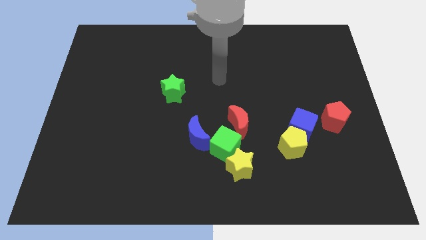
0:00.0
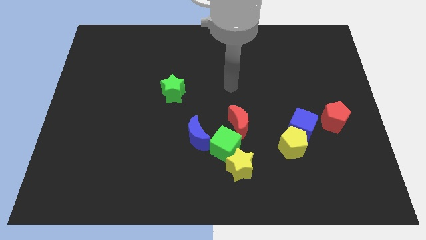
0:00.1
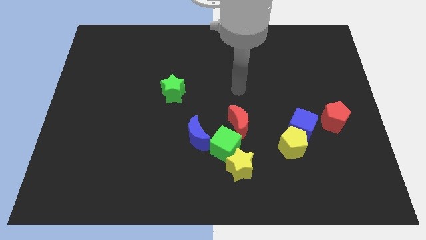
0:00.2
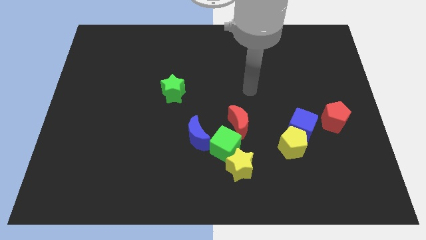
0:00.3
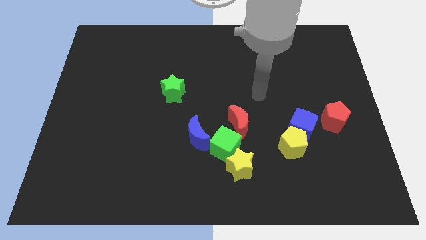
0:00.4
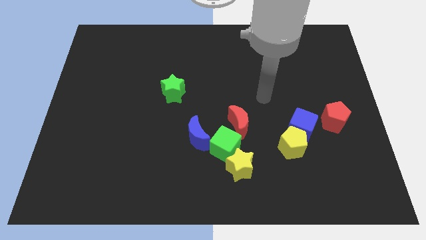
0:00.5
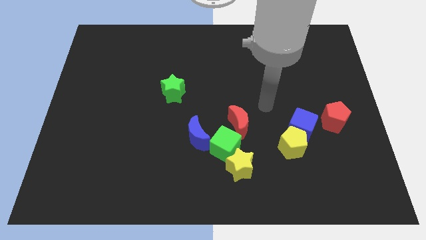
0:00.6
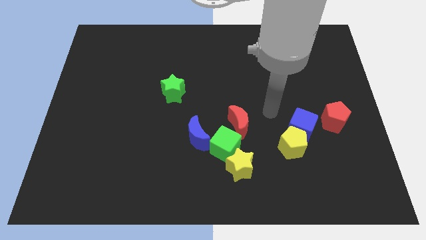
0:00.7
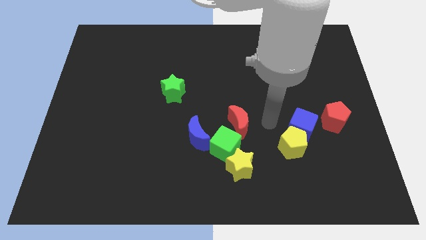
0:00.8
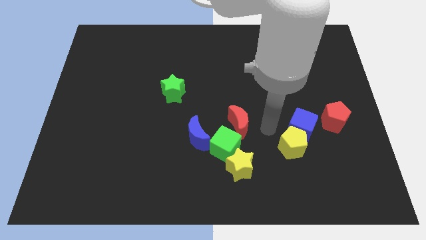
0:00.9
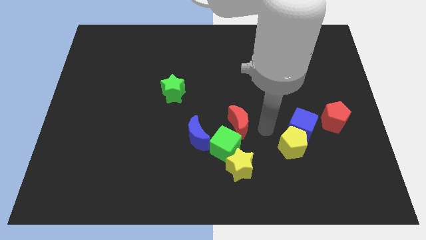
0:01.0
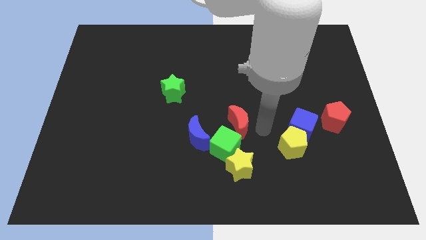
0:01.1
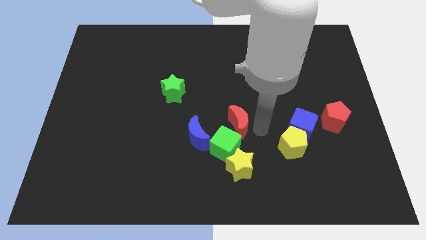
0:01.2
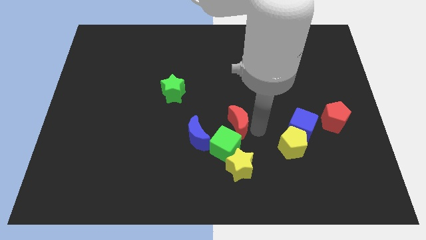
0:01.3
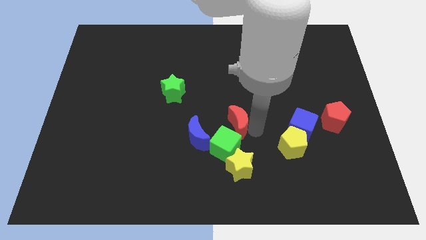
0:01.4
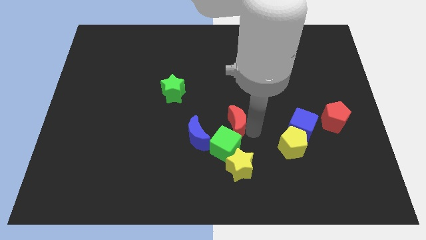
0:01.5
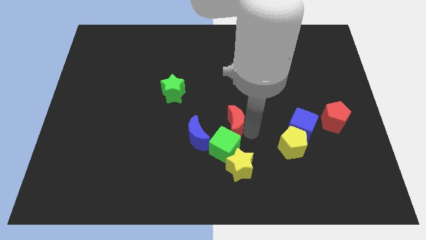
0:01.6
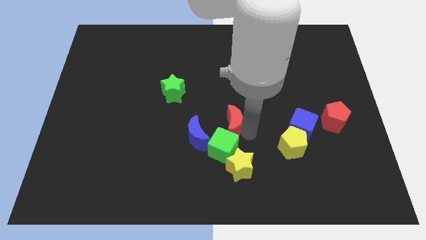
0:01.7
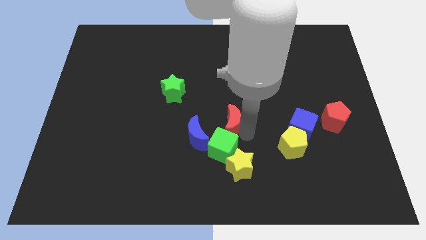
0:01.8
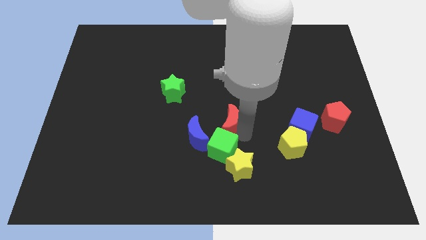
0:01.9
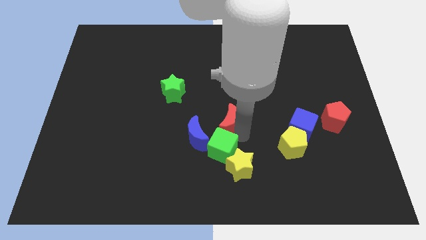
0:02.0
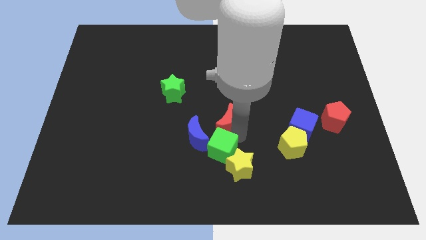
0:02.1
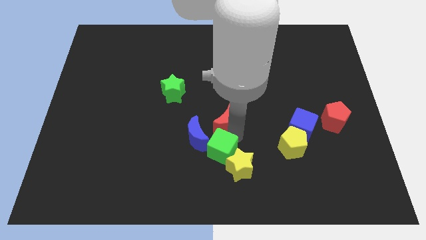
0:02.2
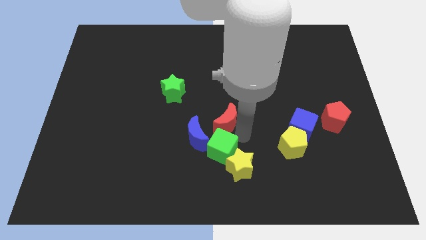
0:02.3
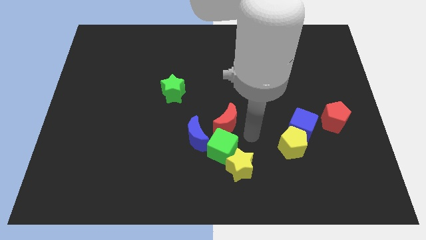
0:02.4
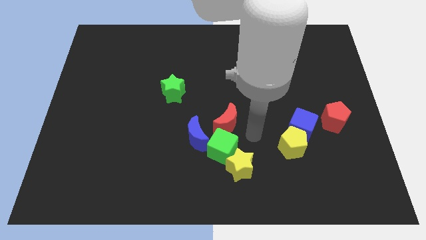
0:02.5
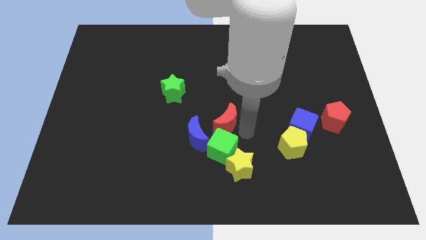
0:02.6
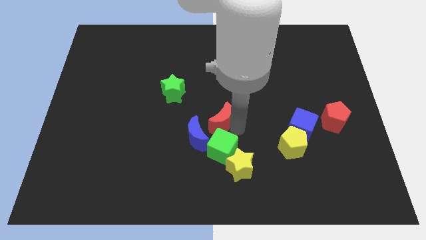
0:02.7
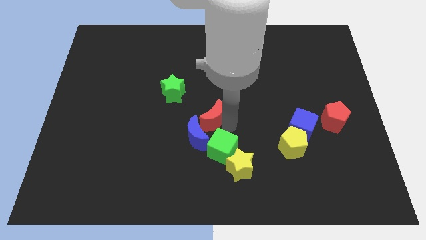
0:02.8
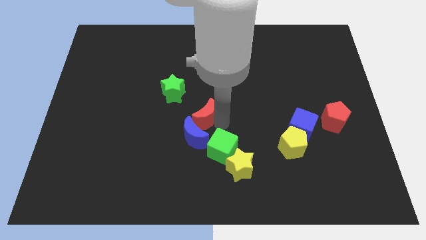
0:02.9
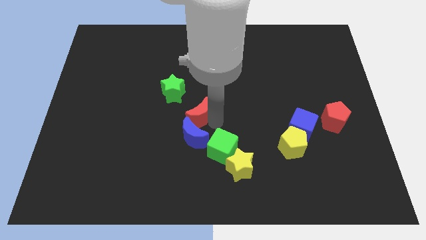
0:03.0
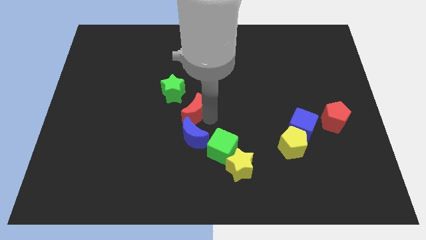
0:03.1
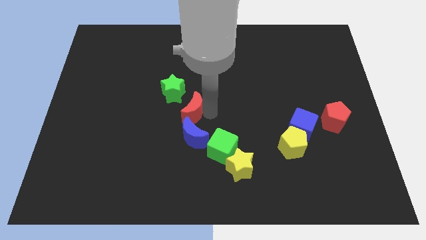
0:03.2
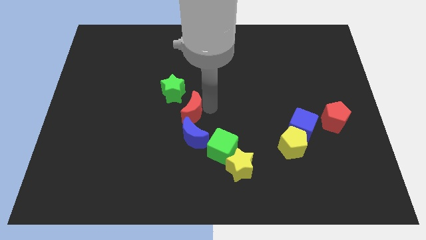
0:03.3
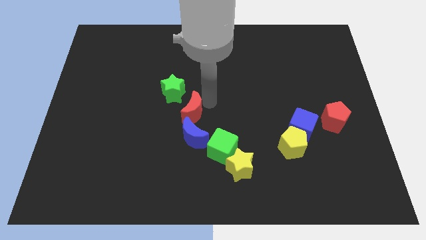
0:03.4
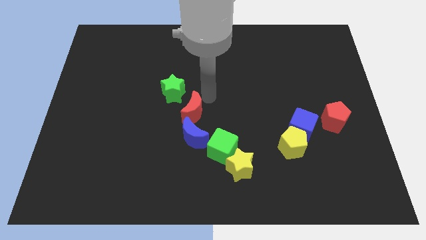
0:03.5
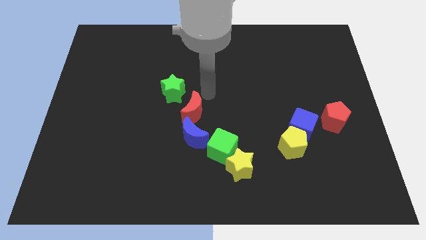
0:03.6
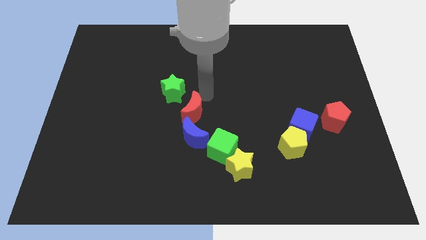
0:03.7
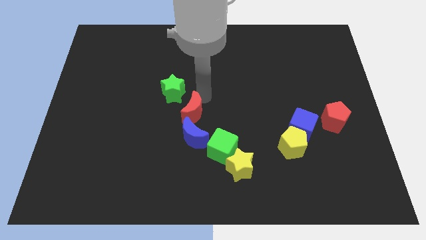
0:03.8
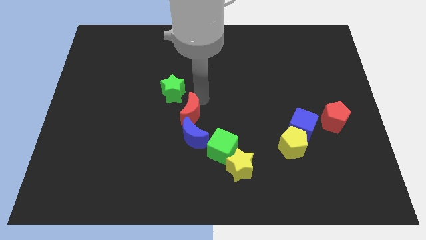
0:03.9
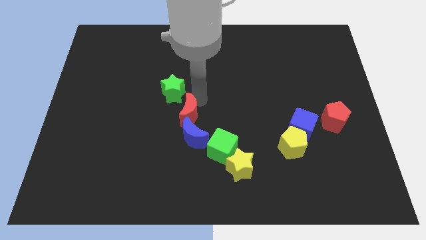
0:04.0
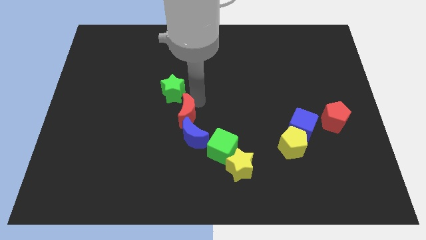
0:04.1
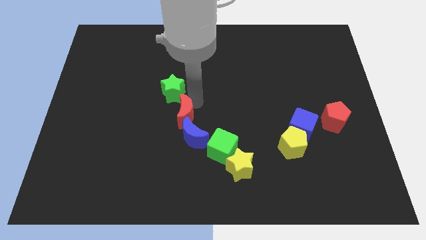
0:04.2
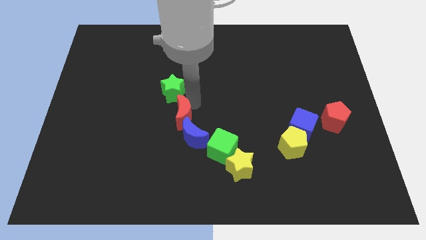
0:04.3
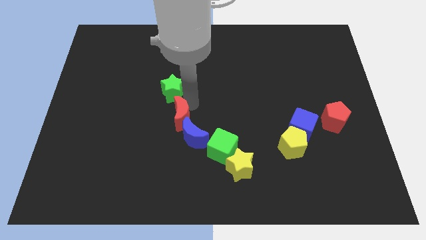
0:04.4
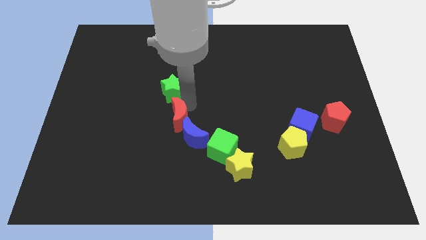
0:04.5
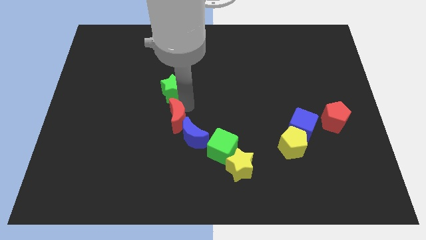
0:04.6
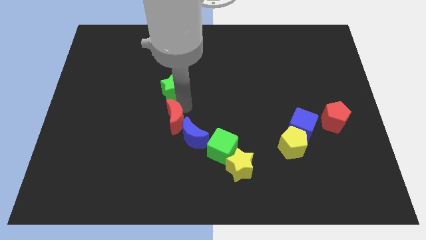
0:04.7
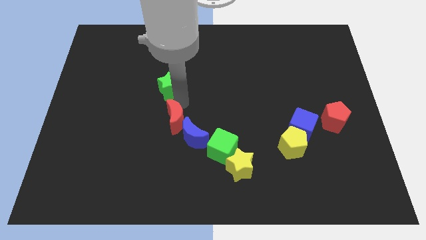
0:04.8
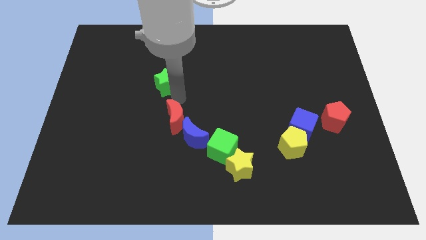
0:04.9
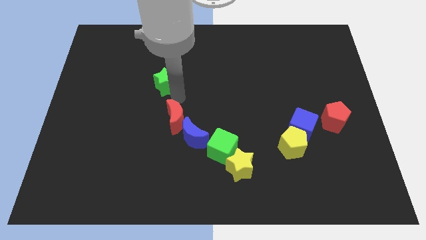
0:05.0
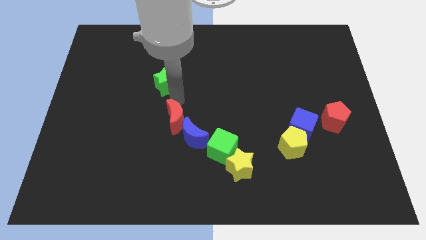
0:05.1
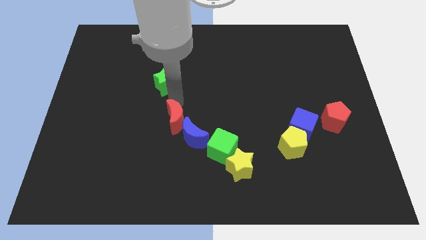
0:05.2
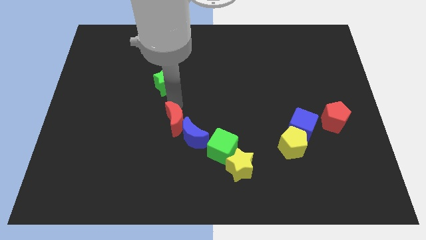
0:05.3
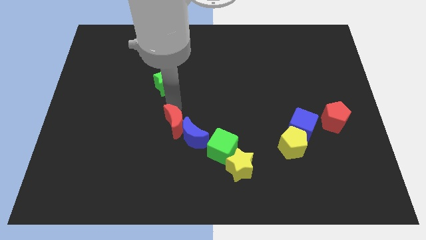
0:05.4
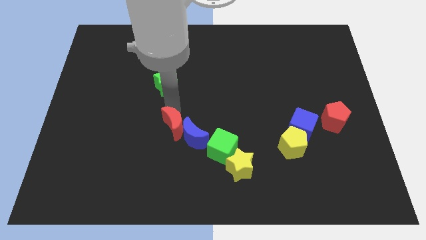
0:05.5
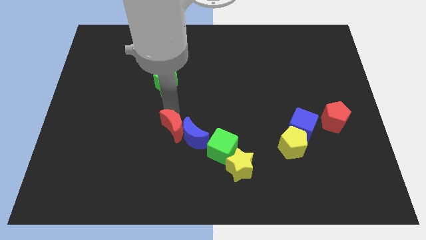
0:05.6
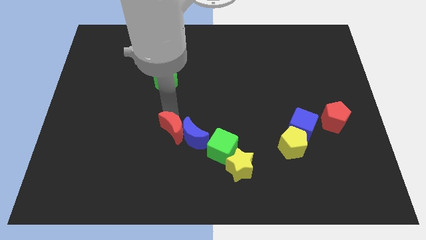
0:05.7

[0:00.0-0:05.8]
slide the red moon downwards and to the left diagonally somewhat

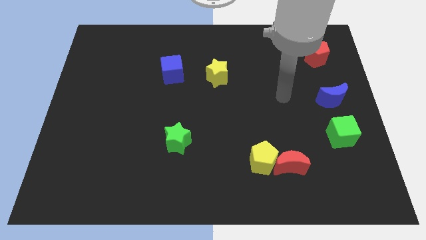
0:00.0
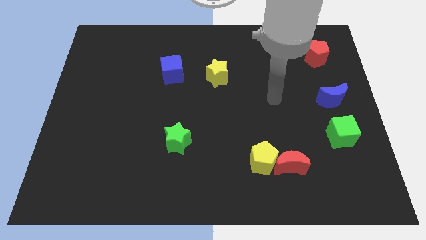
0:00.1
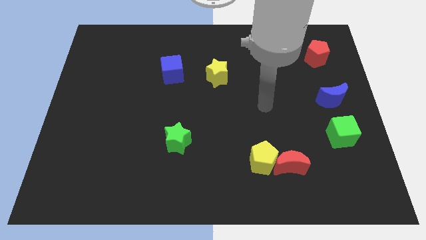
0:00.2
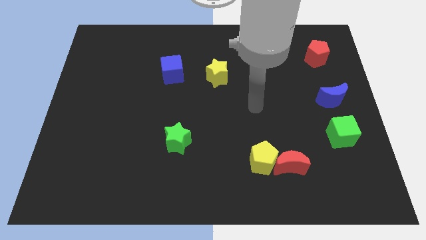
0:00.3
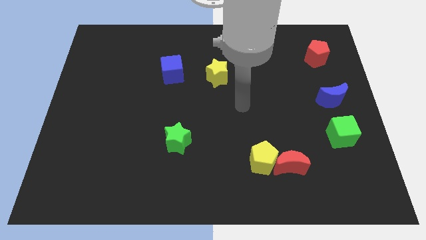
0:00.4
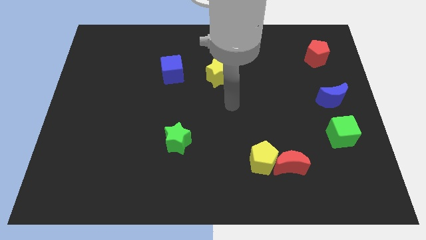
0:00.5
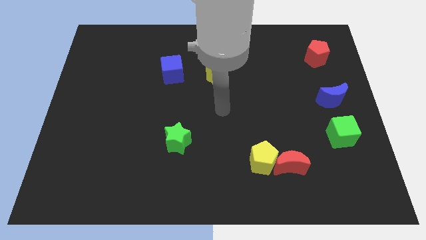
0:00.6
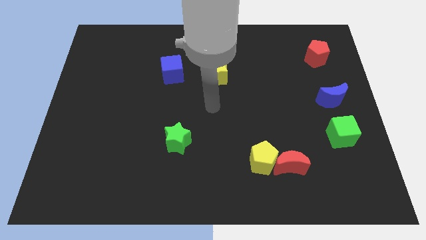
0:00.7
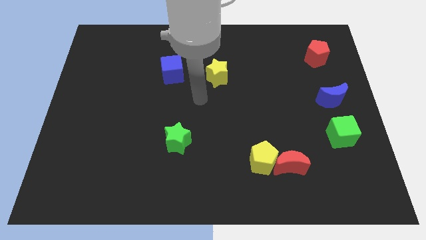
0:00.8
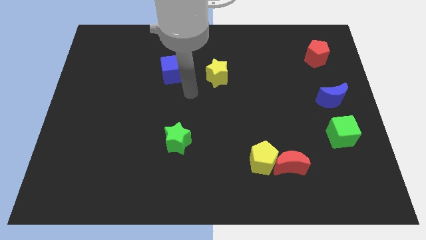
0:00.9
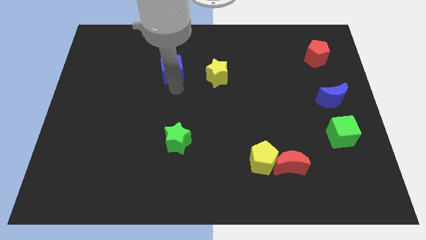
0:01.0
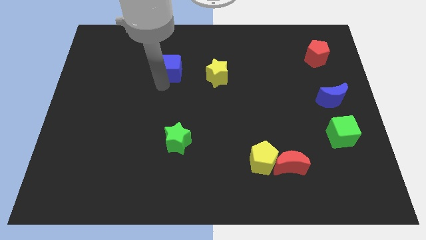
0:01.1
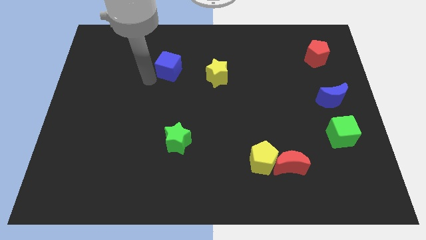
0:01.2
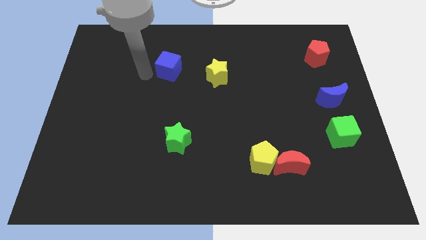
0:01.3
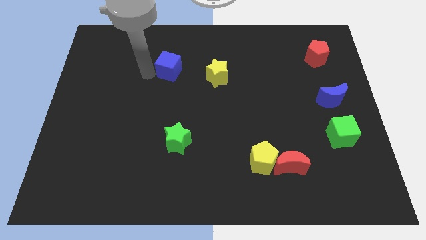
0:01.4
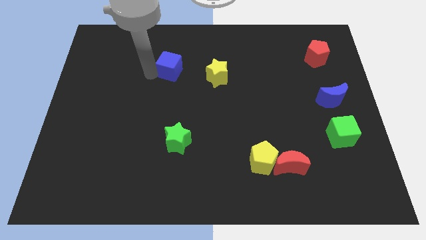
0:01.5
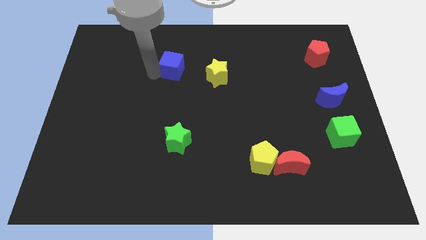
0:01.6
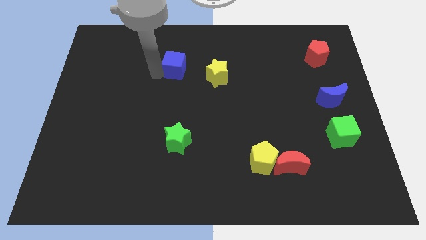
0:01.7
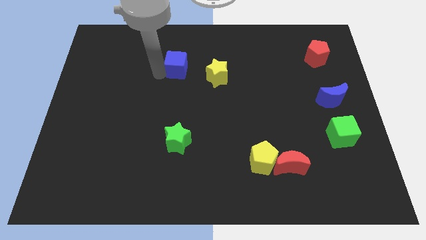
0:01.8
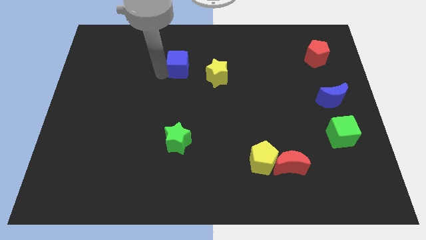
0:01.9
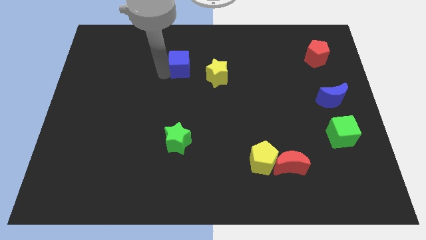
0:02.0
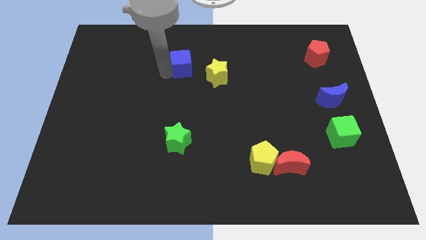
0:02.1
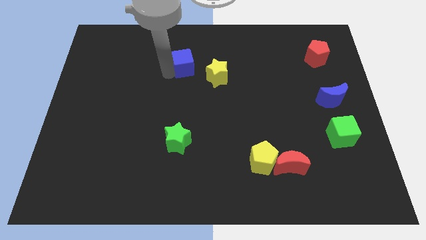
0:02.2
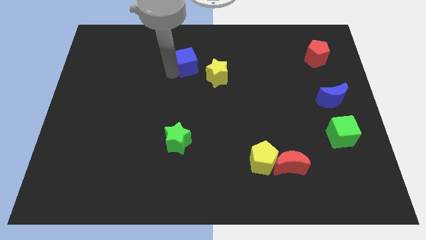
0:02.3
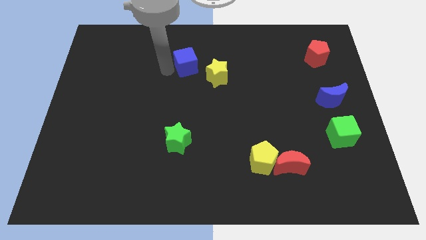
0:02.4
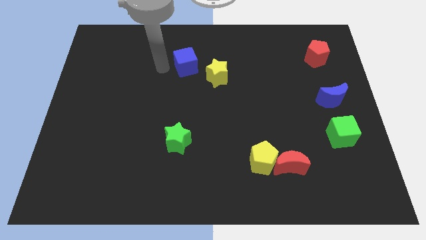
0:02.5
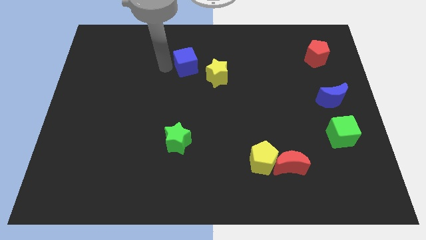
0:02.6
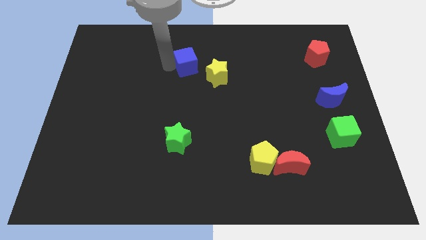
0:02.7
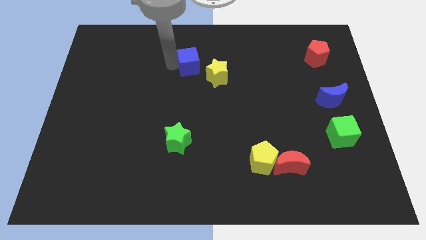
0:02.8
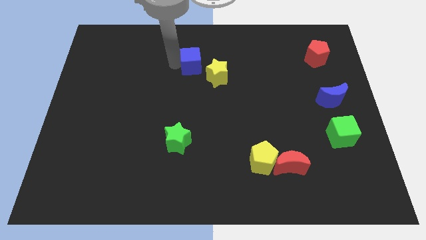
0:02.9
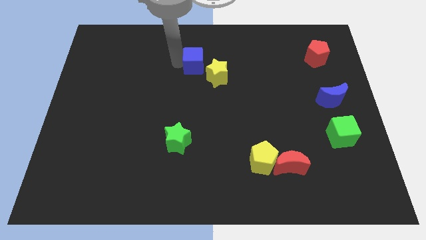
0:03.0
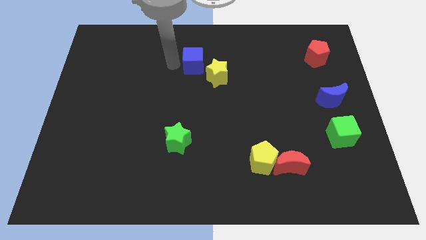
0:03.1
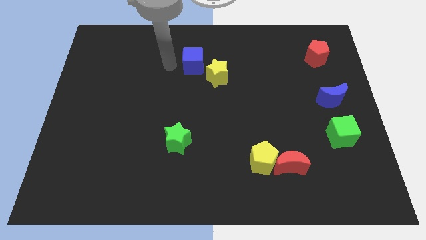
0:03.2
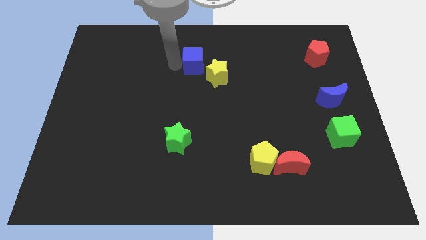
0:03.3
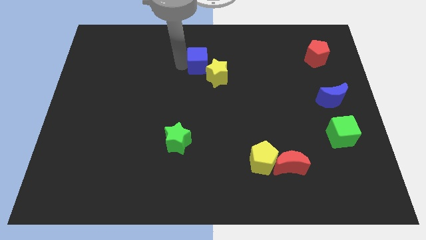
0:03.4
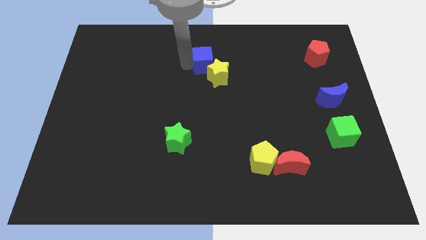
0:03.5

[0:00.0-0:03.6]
slide the blue cube a little bit right
